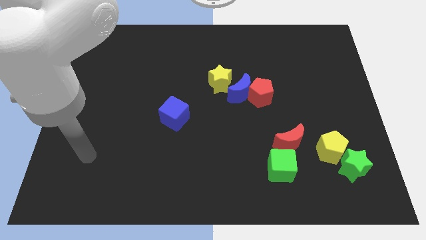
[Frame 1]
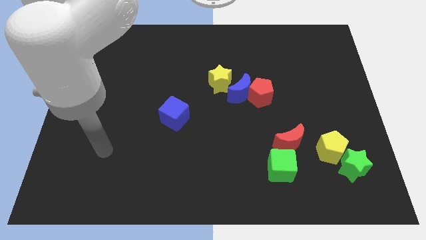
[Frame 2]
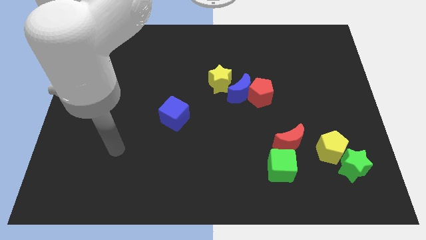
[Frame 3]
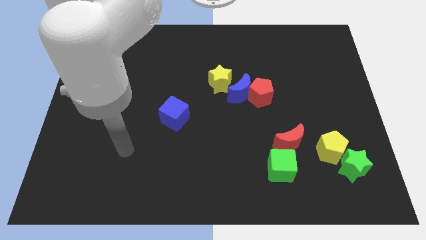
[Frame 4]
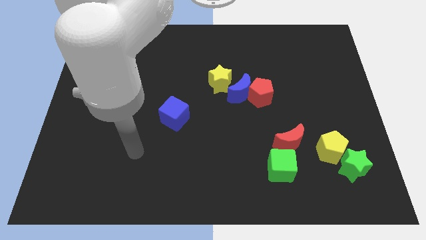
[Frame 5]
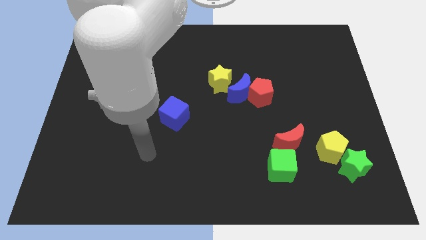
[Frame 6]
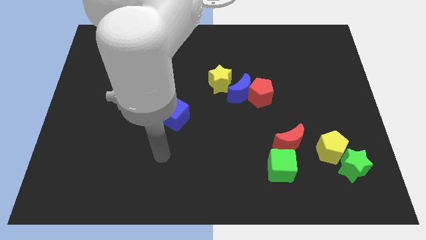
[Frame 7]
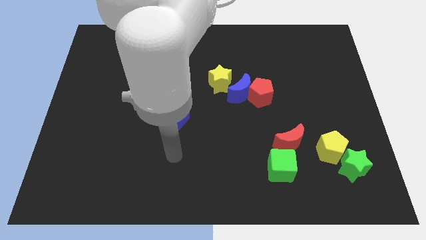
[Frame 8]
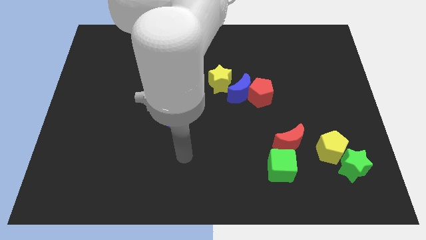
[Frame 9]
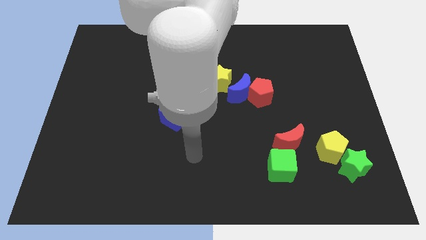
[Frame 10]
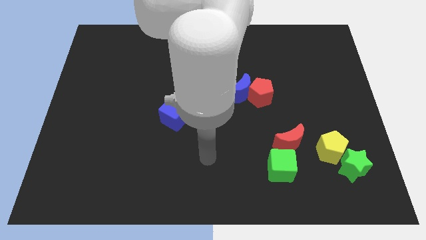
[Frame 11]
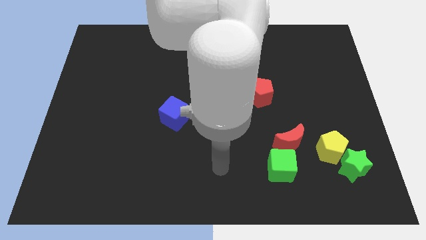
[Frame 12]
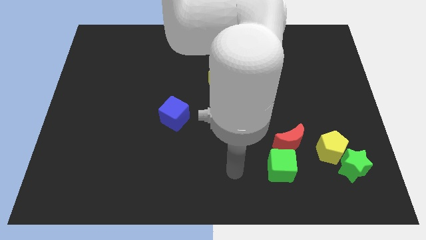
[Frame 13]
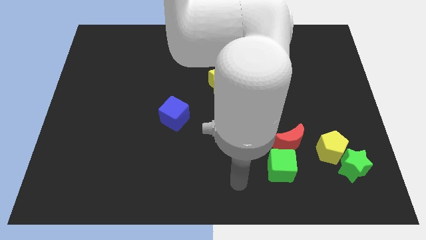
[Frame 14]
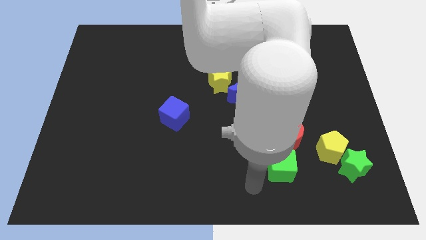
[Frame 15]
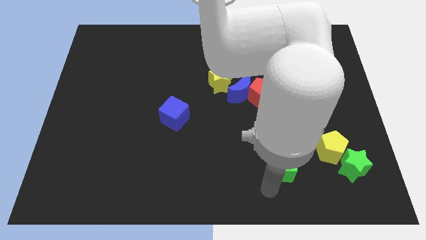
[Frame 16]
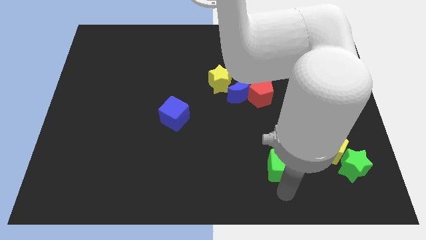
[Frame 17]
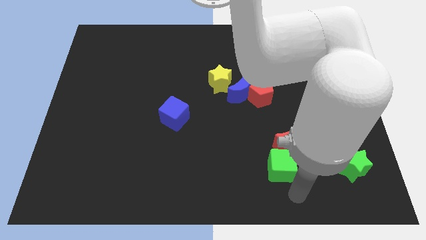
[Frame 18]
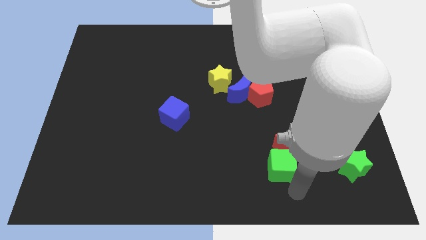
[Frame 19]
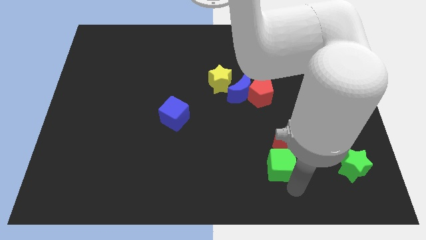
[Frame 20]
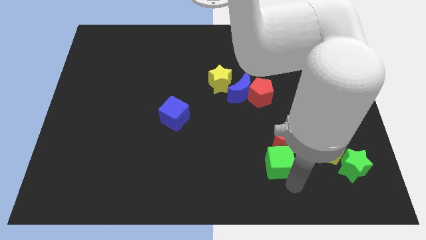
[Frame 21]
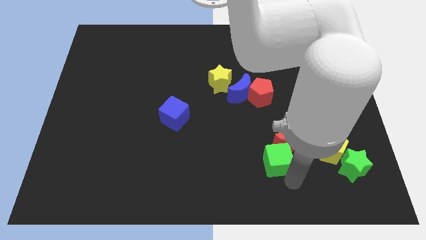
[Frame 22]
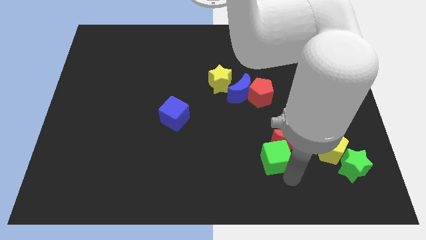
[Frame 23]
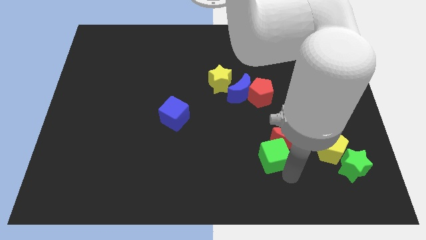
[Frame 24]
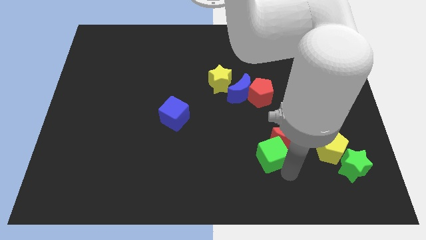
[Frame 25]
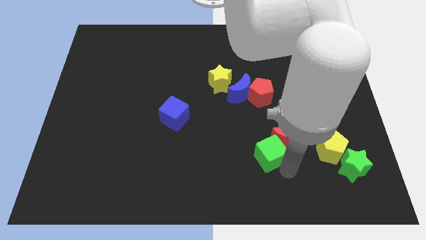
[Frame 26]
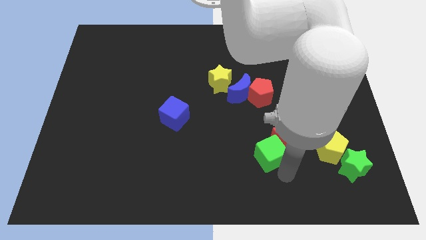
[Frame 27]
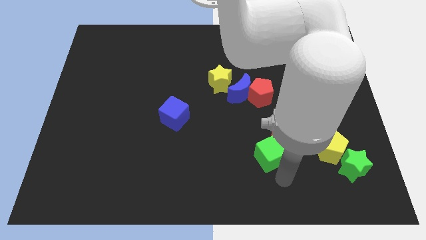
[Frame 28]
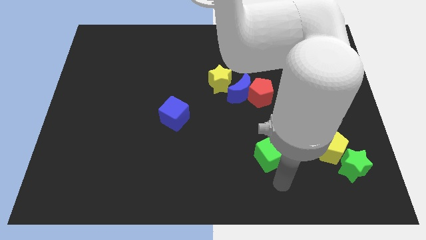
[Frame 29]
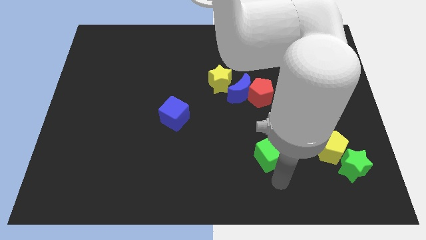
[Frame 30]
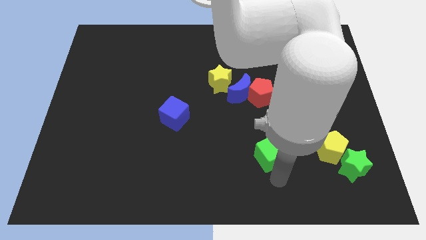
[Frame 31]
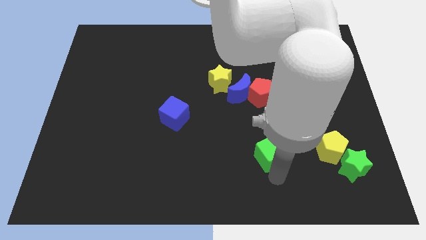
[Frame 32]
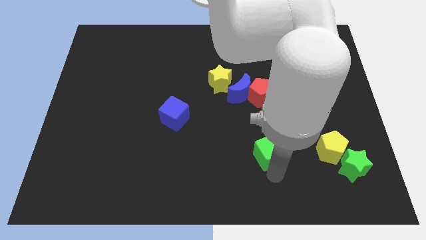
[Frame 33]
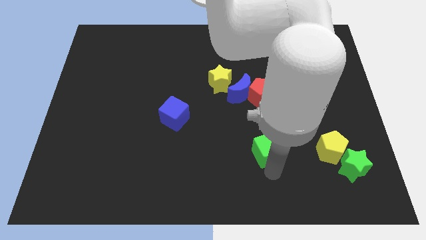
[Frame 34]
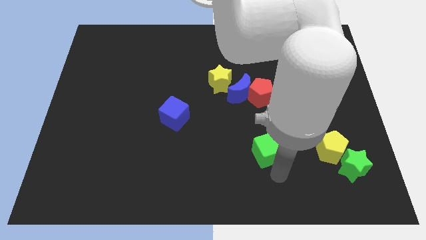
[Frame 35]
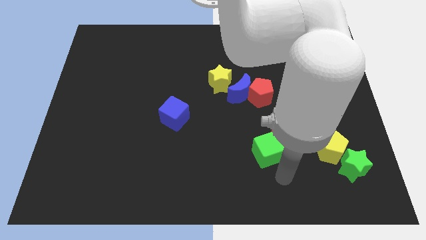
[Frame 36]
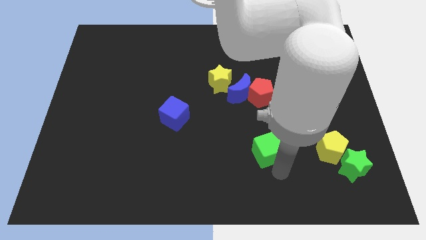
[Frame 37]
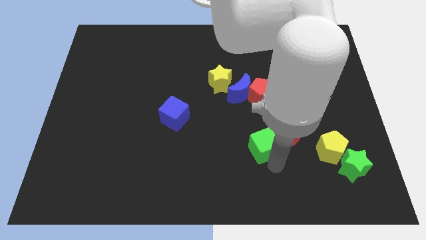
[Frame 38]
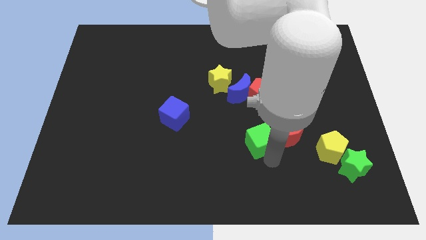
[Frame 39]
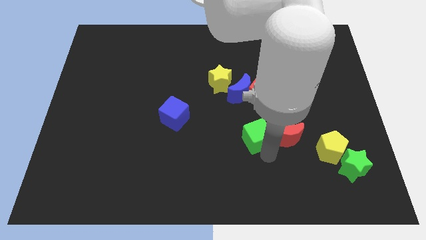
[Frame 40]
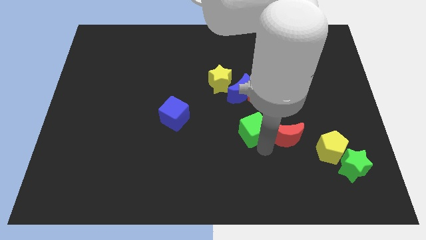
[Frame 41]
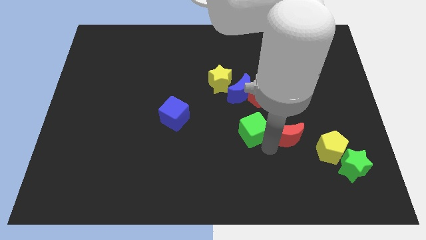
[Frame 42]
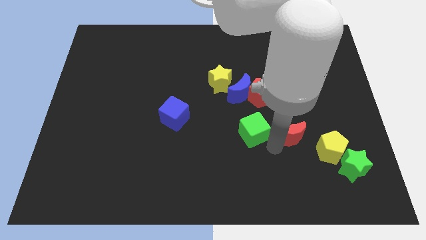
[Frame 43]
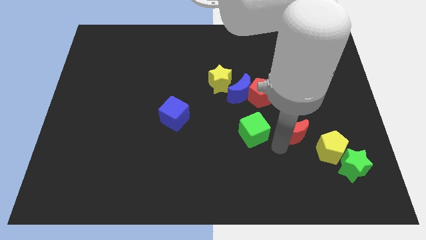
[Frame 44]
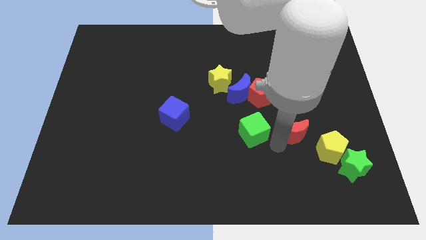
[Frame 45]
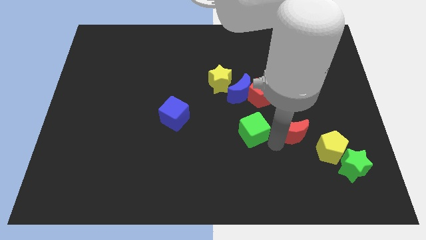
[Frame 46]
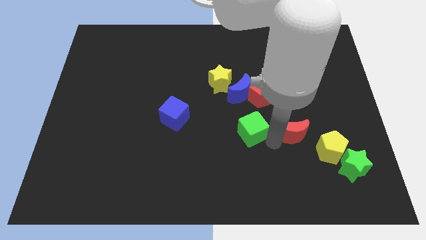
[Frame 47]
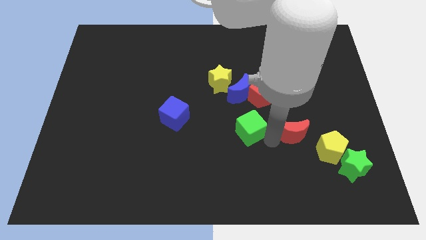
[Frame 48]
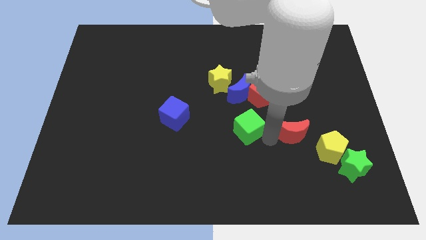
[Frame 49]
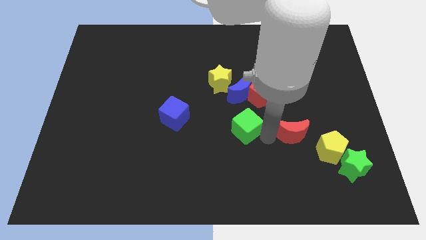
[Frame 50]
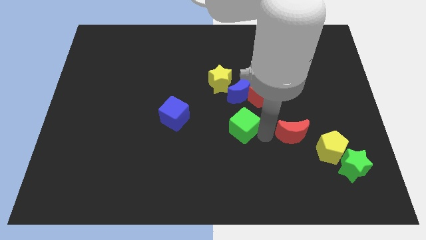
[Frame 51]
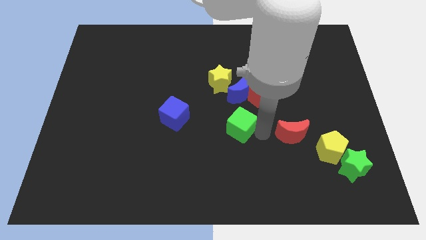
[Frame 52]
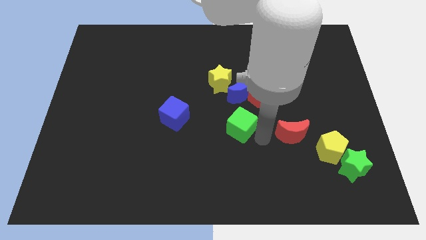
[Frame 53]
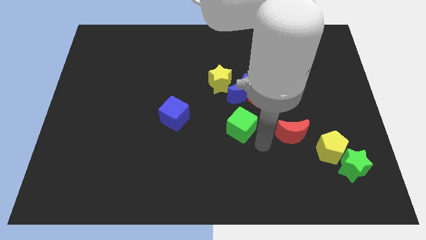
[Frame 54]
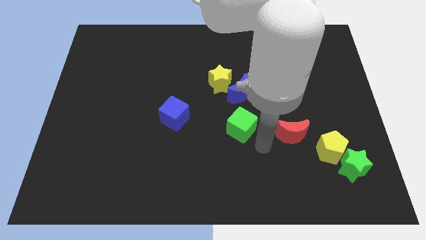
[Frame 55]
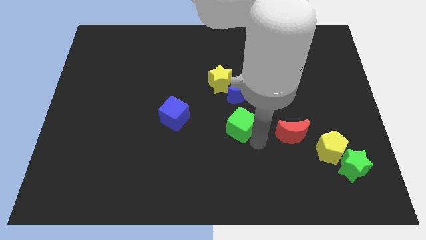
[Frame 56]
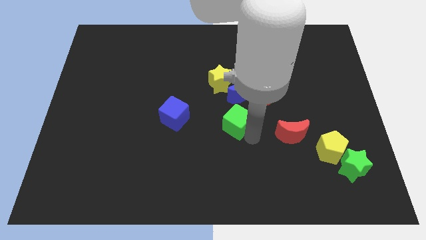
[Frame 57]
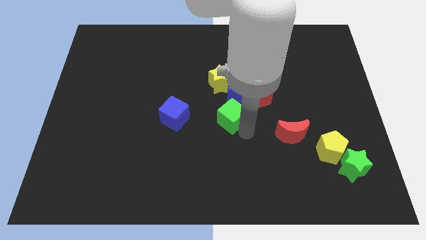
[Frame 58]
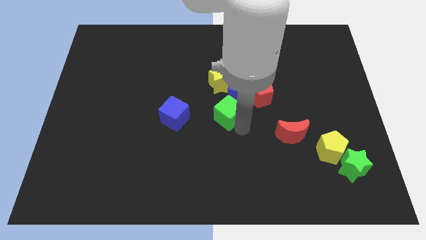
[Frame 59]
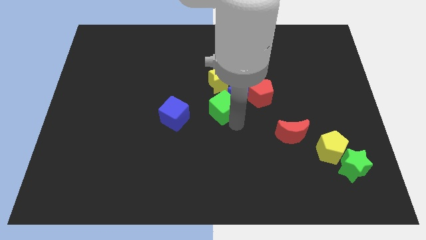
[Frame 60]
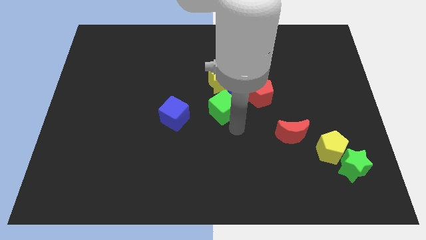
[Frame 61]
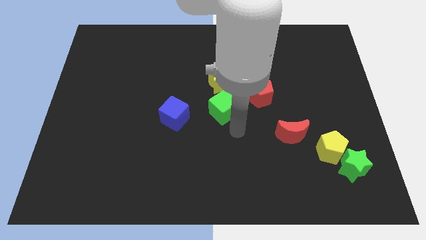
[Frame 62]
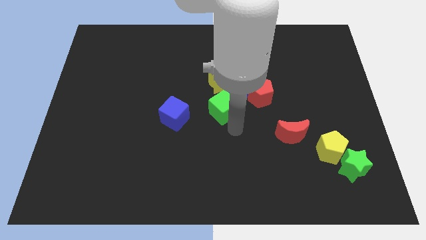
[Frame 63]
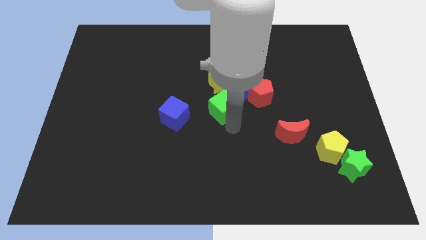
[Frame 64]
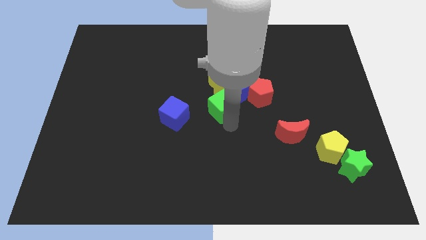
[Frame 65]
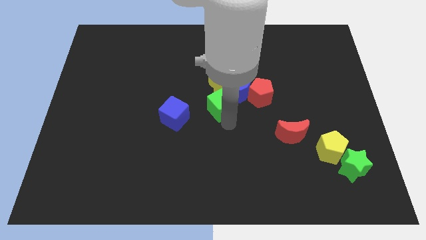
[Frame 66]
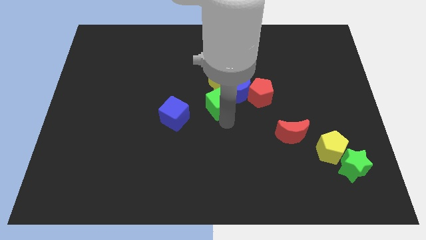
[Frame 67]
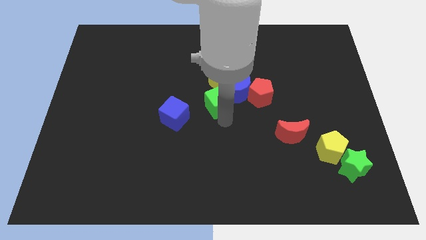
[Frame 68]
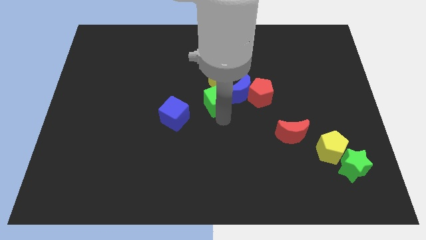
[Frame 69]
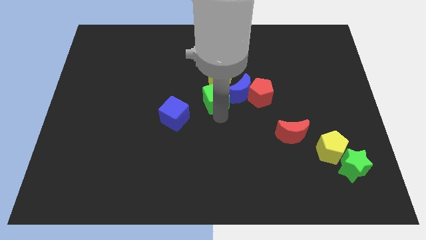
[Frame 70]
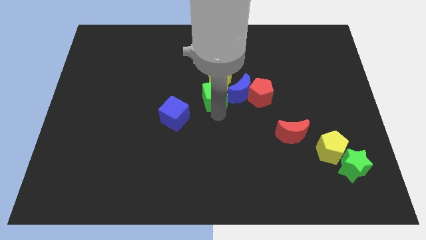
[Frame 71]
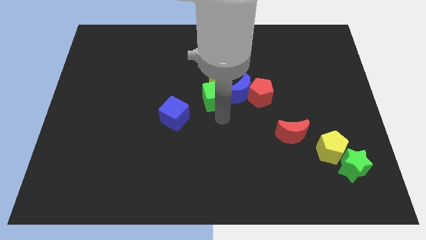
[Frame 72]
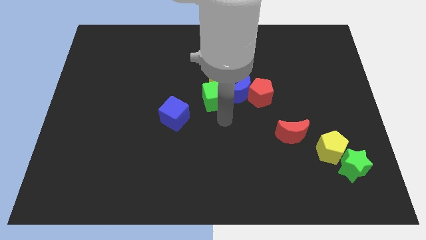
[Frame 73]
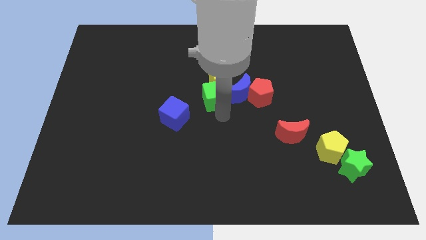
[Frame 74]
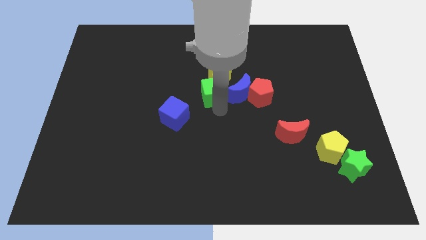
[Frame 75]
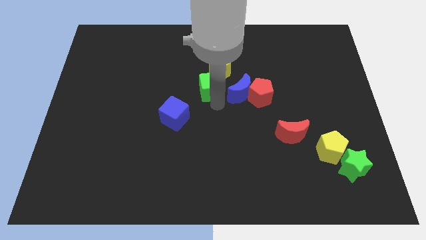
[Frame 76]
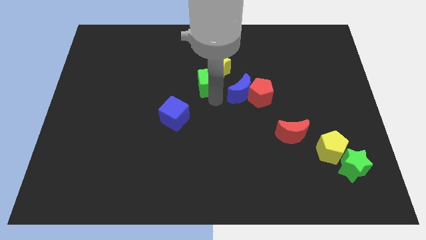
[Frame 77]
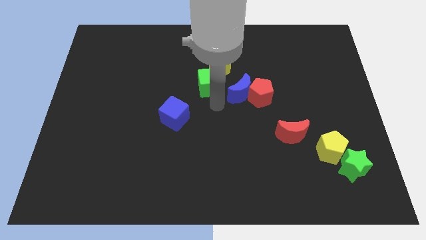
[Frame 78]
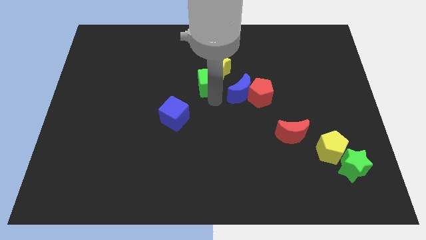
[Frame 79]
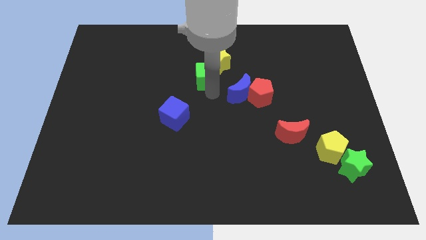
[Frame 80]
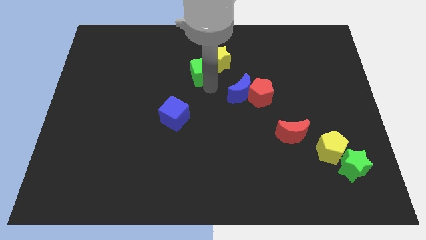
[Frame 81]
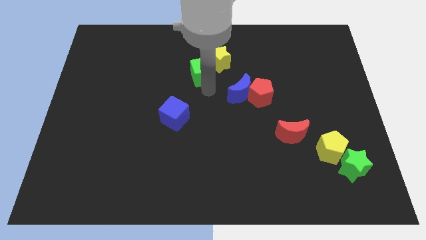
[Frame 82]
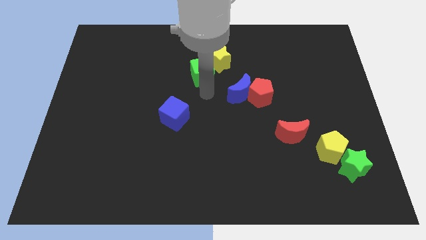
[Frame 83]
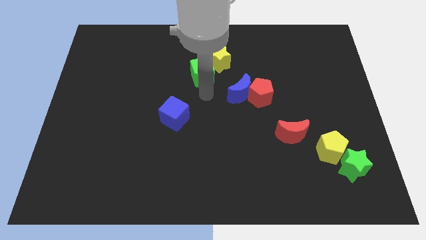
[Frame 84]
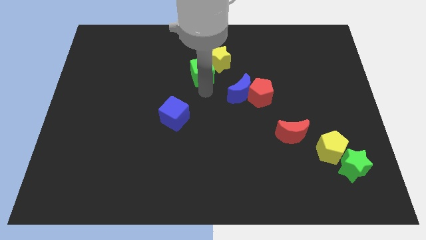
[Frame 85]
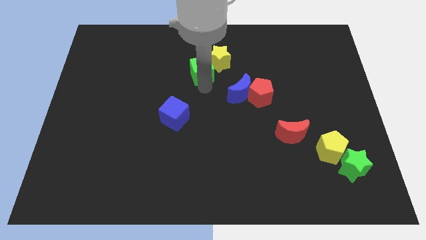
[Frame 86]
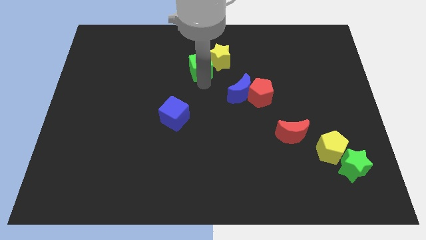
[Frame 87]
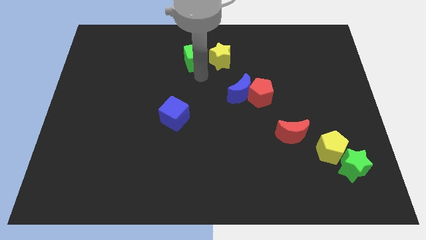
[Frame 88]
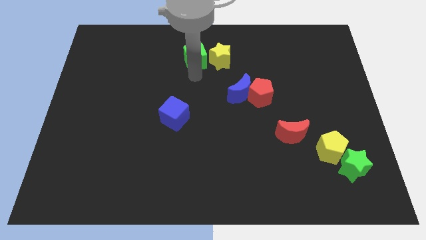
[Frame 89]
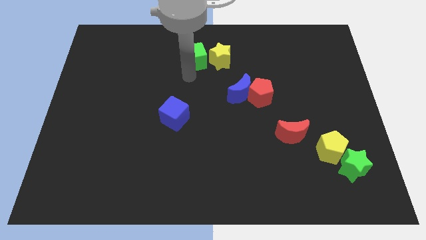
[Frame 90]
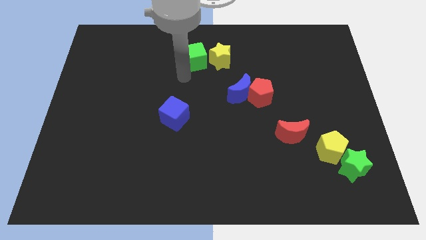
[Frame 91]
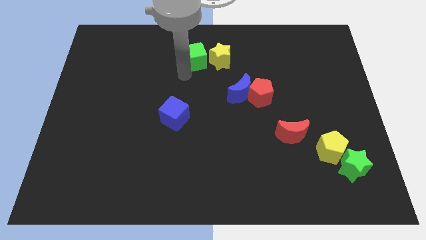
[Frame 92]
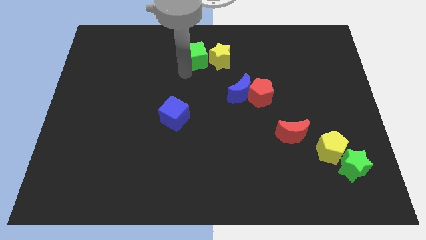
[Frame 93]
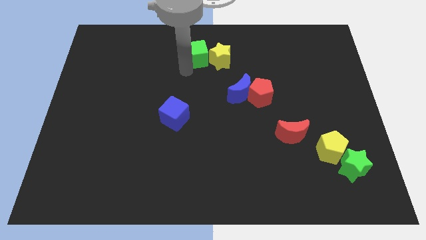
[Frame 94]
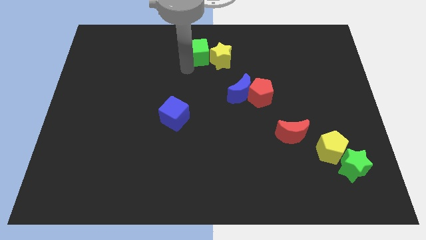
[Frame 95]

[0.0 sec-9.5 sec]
slide the green cube to the top
